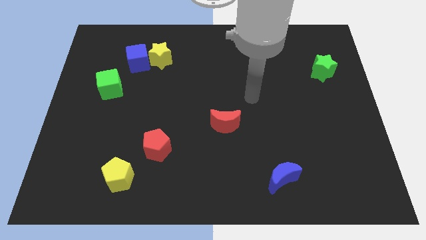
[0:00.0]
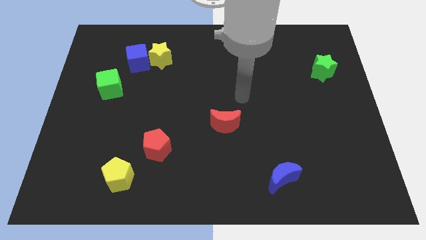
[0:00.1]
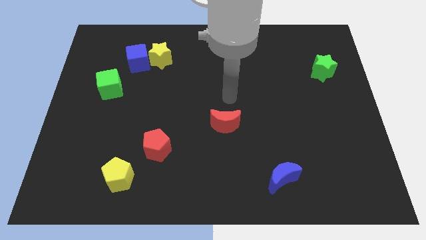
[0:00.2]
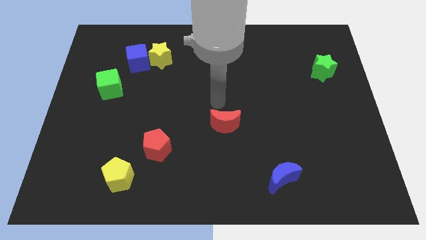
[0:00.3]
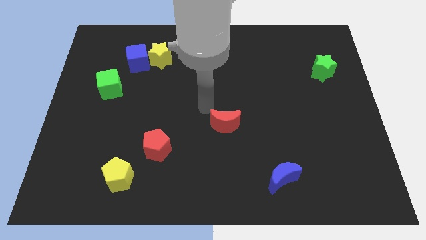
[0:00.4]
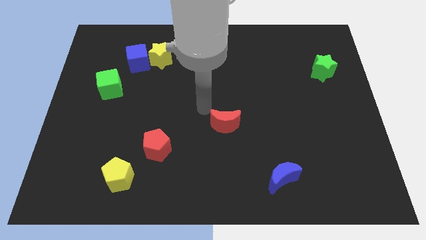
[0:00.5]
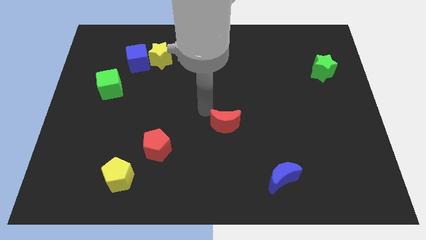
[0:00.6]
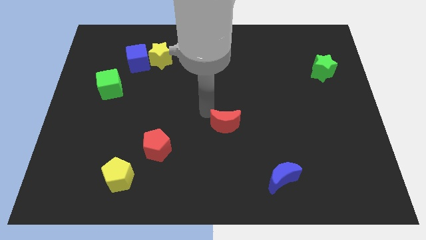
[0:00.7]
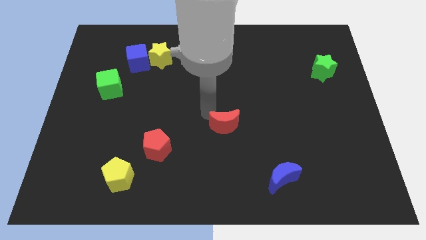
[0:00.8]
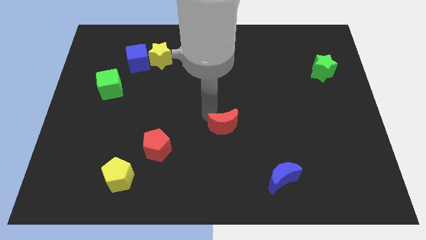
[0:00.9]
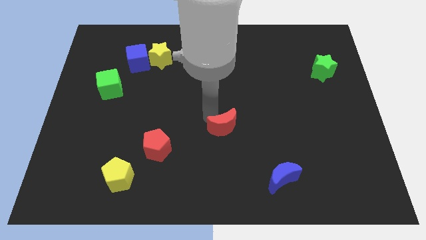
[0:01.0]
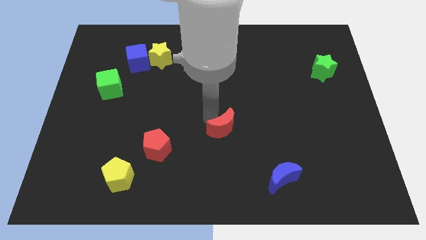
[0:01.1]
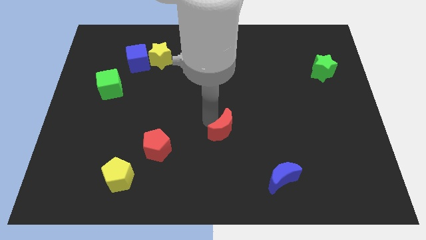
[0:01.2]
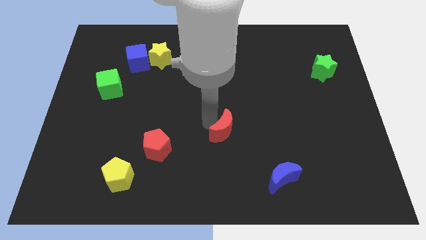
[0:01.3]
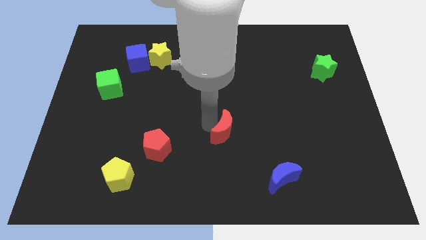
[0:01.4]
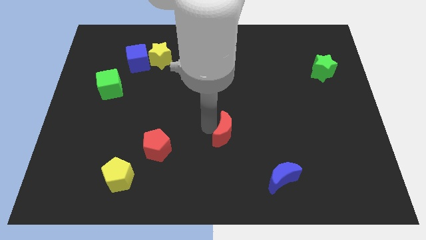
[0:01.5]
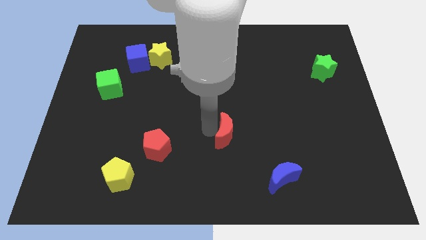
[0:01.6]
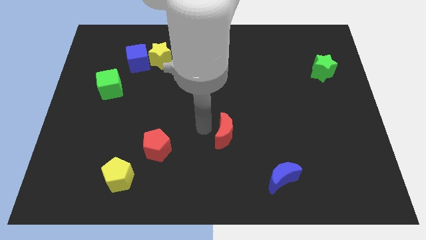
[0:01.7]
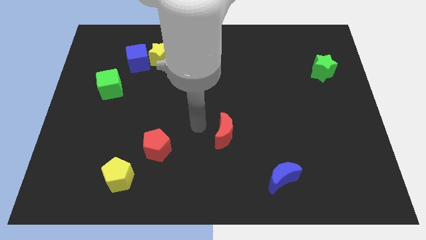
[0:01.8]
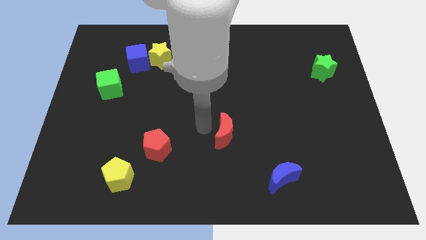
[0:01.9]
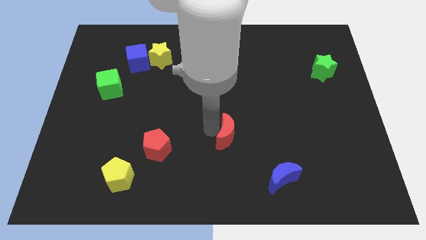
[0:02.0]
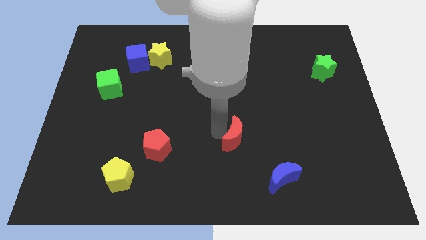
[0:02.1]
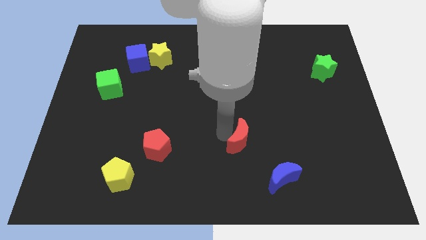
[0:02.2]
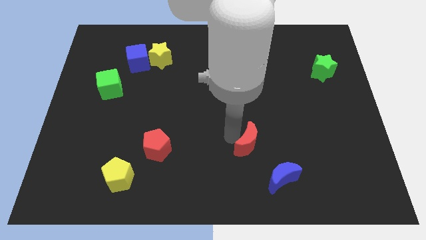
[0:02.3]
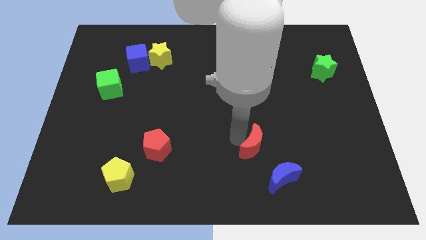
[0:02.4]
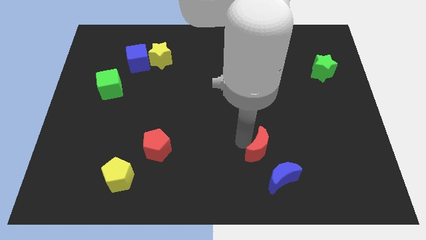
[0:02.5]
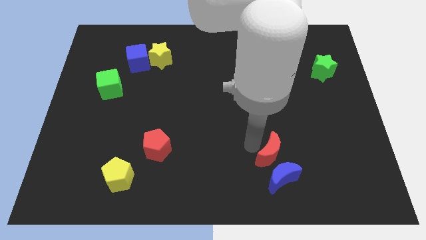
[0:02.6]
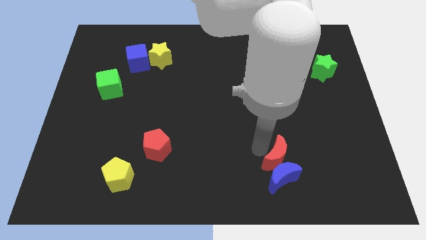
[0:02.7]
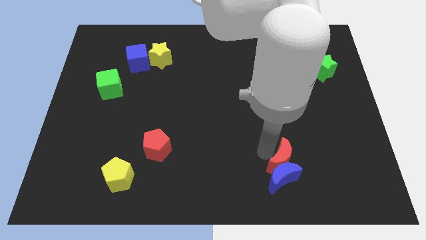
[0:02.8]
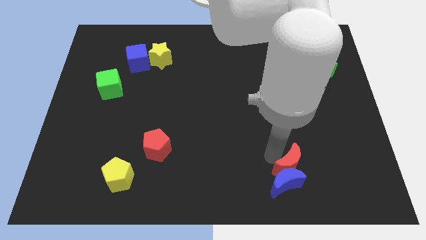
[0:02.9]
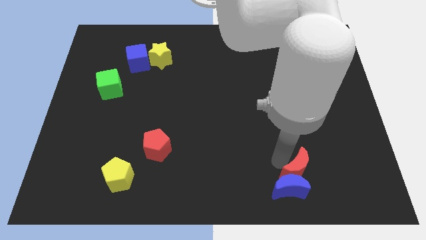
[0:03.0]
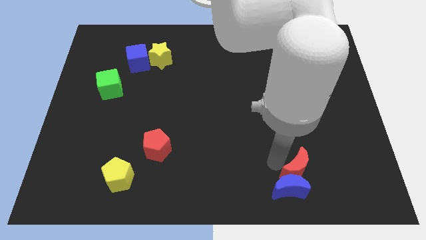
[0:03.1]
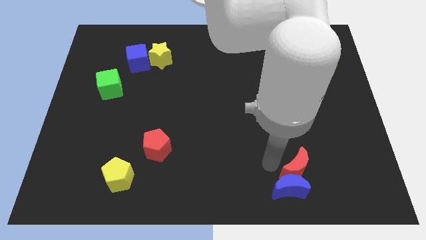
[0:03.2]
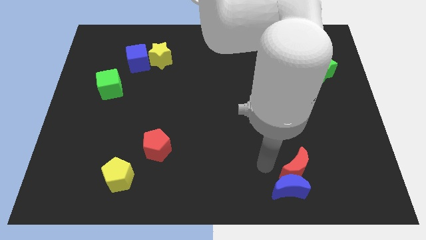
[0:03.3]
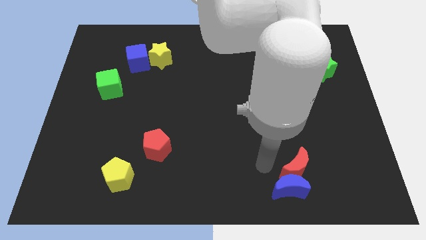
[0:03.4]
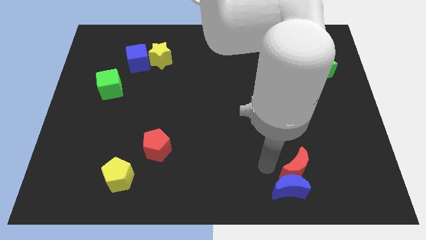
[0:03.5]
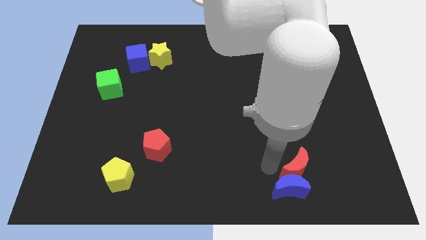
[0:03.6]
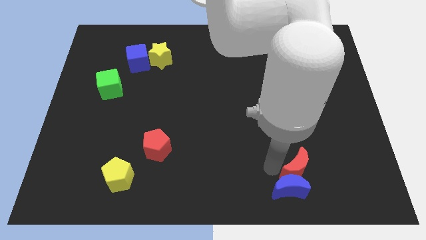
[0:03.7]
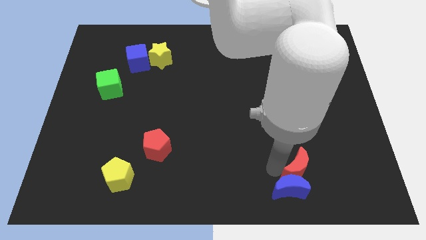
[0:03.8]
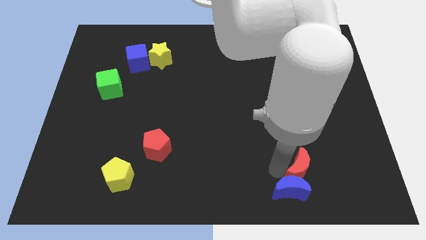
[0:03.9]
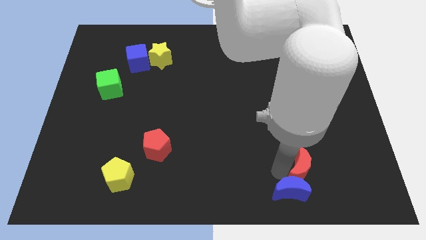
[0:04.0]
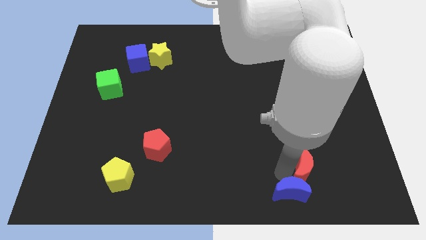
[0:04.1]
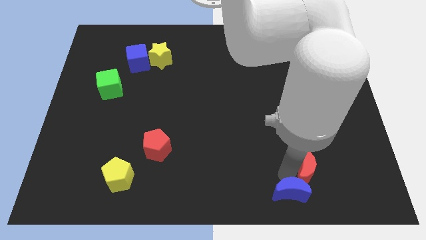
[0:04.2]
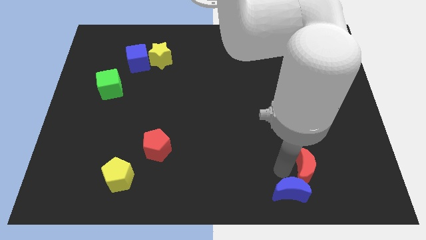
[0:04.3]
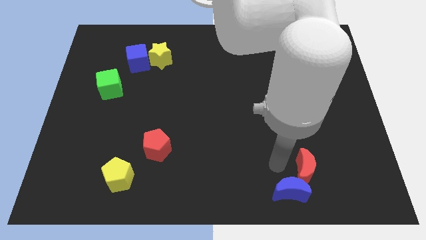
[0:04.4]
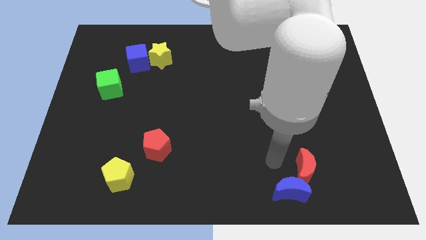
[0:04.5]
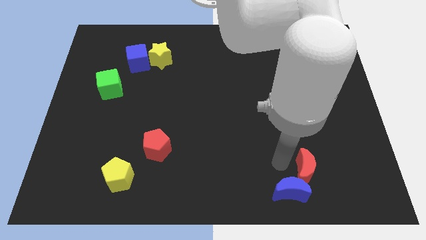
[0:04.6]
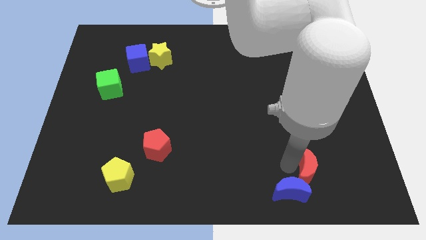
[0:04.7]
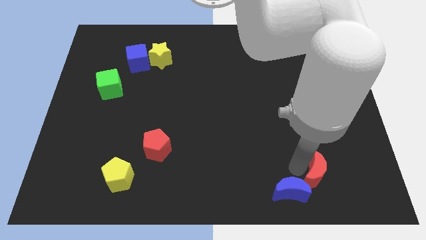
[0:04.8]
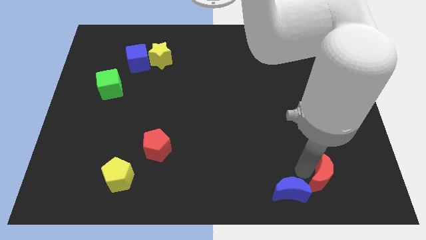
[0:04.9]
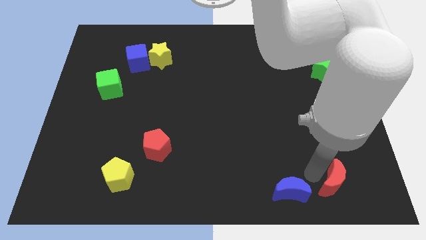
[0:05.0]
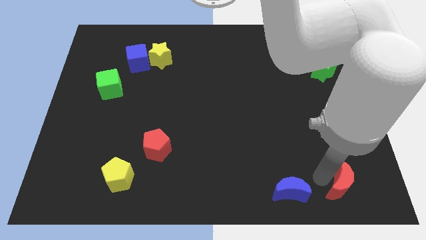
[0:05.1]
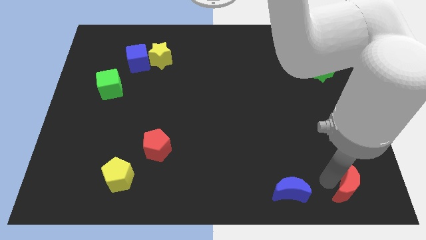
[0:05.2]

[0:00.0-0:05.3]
put the red moon to the lower right corner
